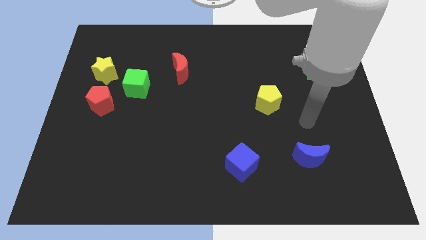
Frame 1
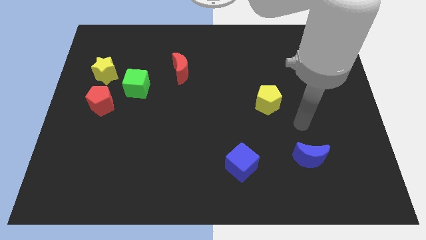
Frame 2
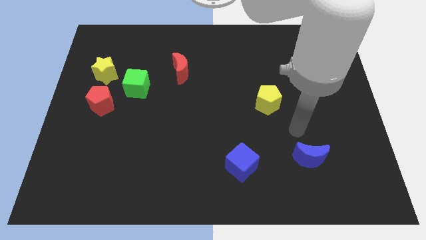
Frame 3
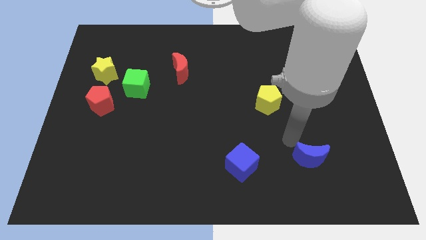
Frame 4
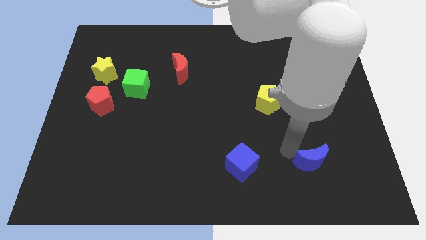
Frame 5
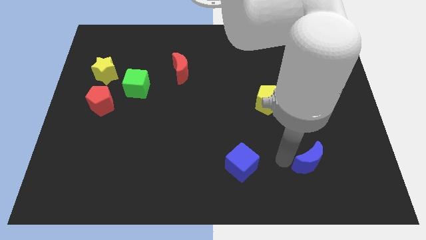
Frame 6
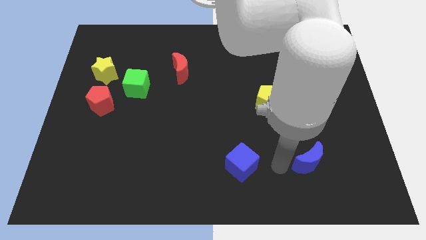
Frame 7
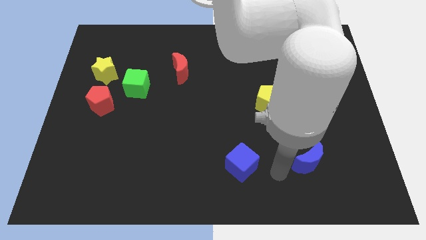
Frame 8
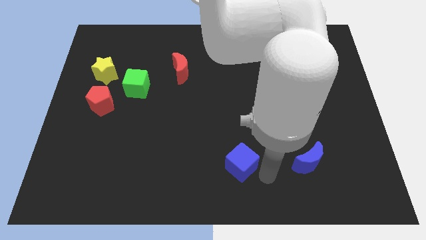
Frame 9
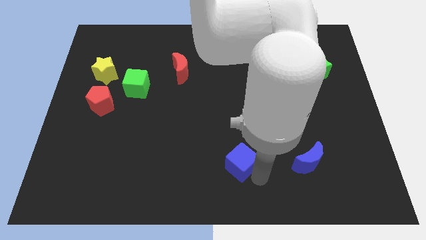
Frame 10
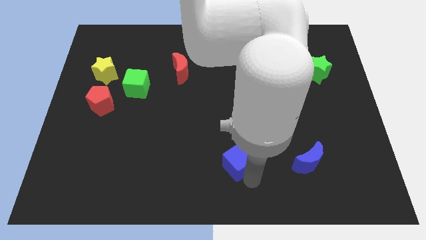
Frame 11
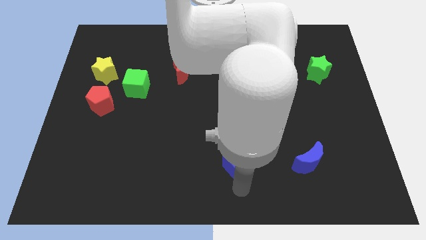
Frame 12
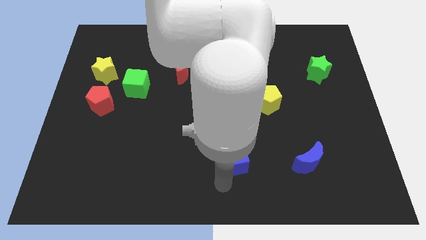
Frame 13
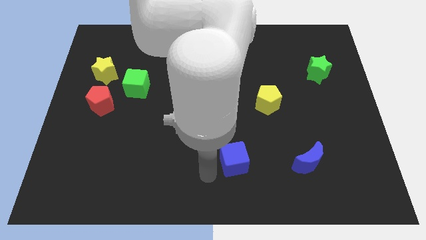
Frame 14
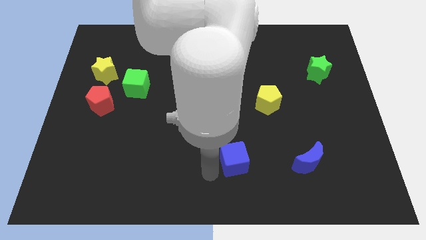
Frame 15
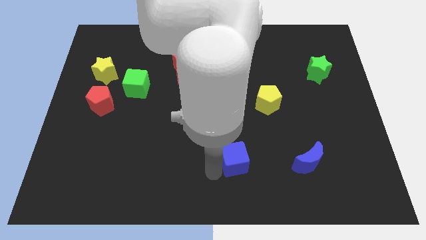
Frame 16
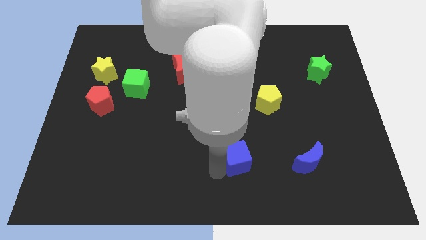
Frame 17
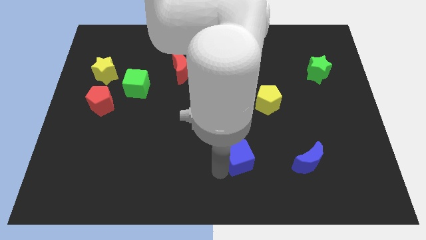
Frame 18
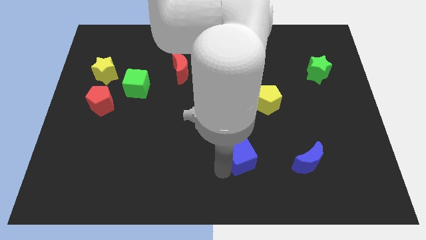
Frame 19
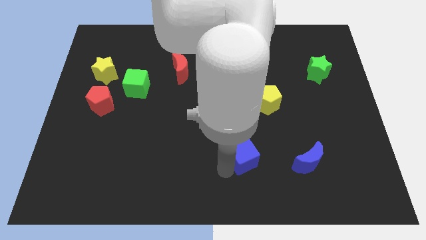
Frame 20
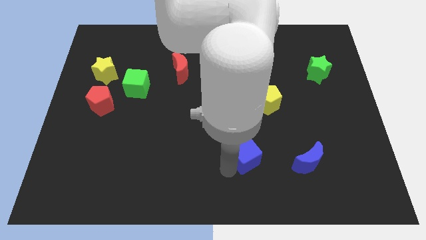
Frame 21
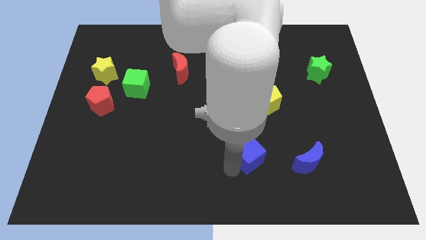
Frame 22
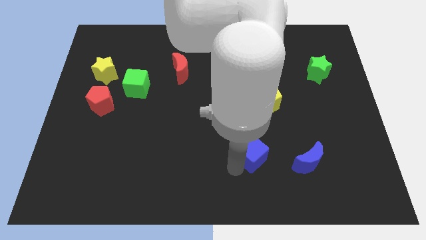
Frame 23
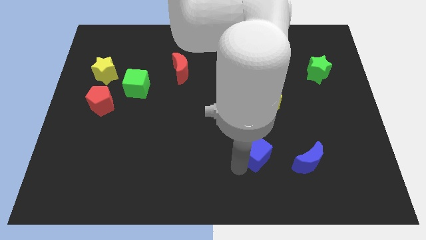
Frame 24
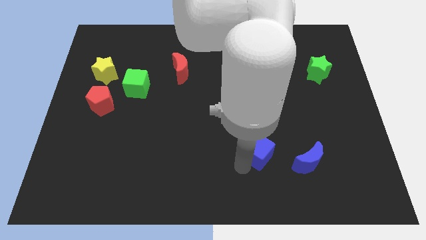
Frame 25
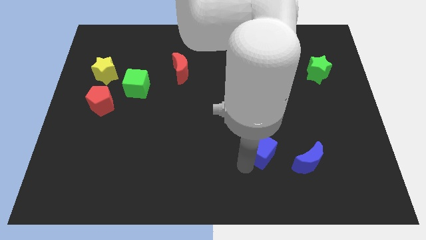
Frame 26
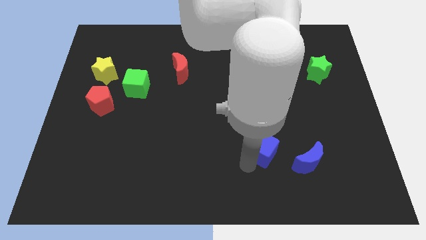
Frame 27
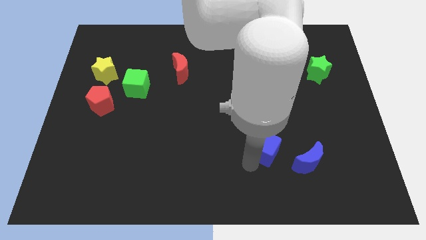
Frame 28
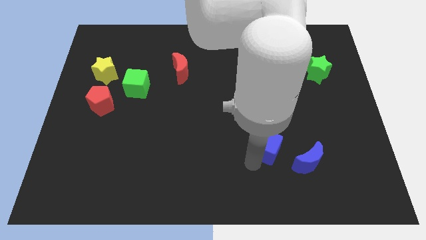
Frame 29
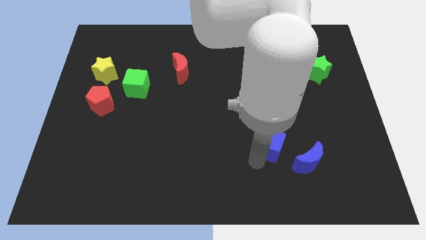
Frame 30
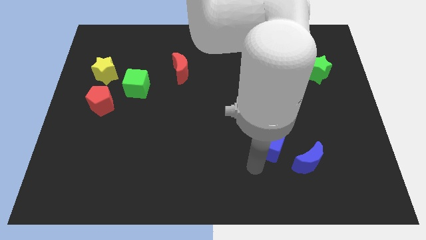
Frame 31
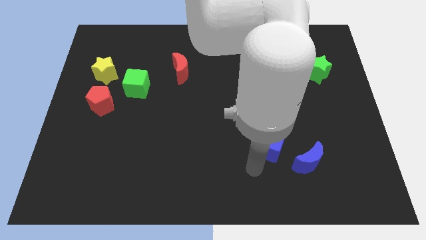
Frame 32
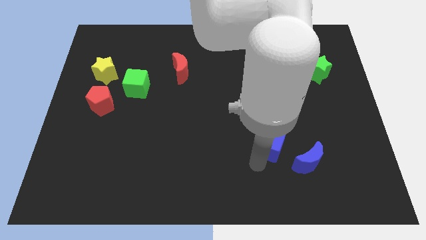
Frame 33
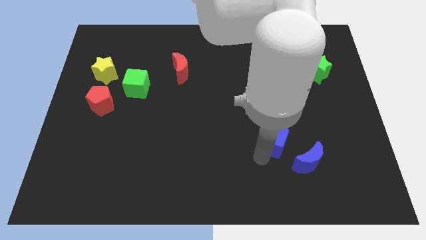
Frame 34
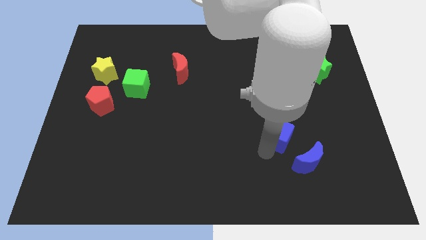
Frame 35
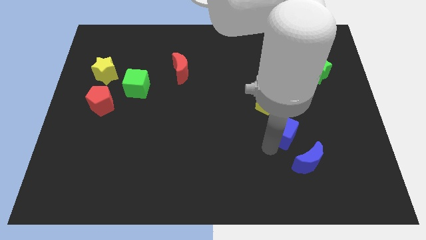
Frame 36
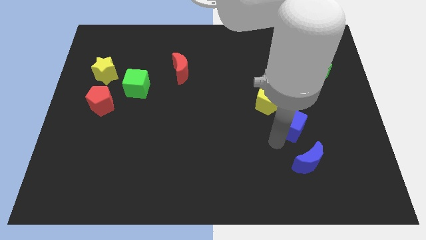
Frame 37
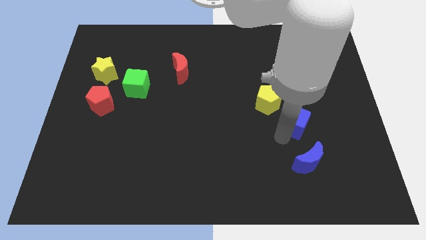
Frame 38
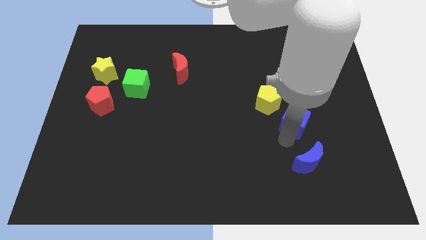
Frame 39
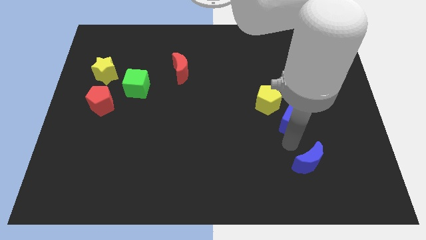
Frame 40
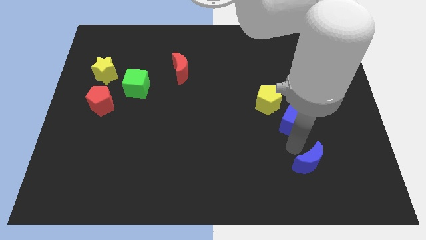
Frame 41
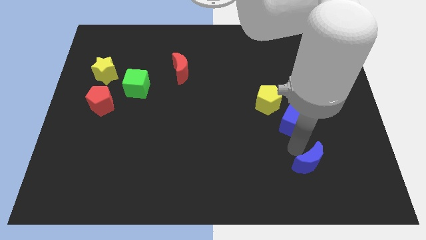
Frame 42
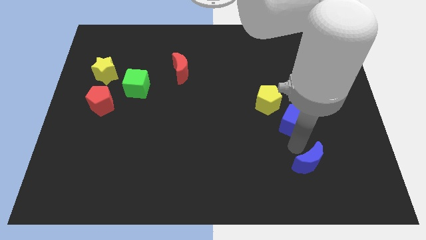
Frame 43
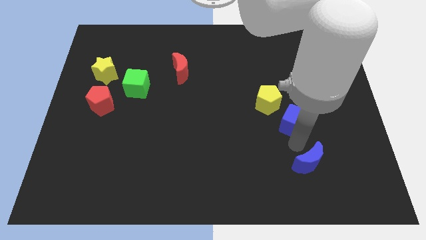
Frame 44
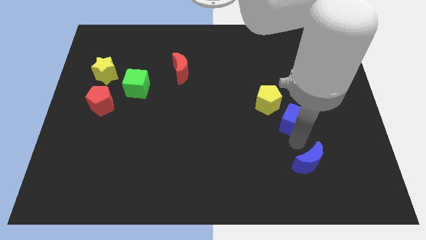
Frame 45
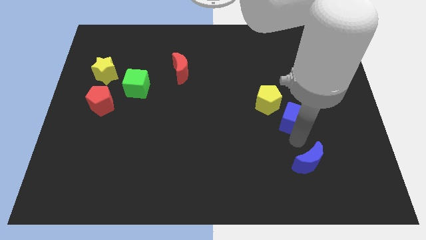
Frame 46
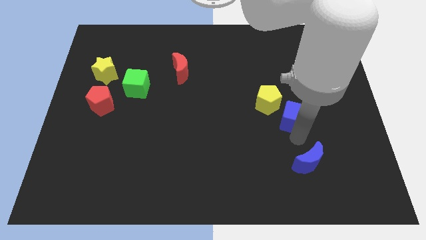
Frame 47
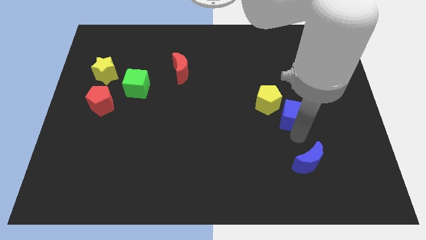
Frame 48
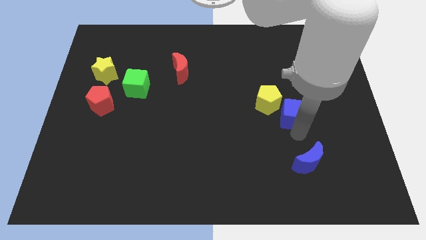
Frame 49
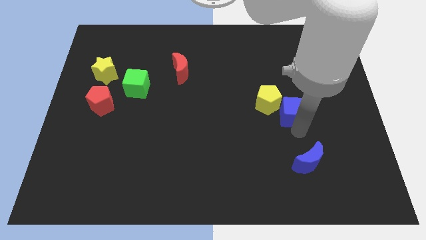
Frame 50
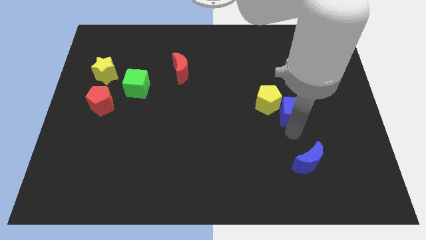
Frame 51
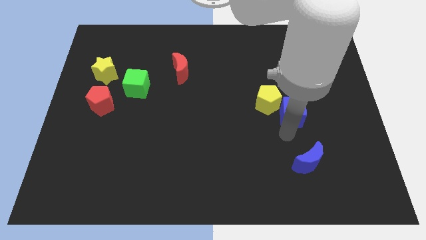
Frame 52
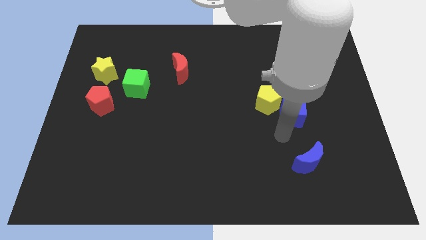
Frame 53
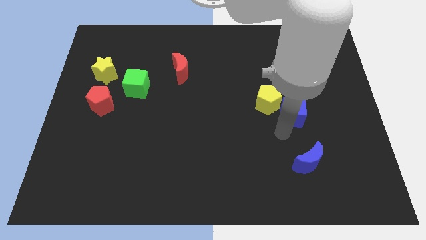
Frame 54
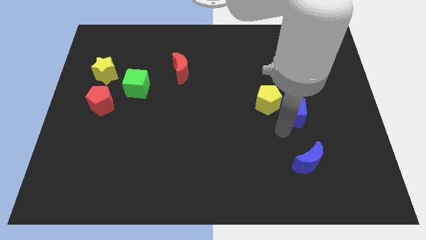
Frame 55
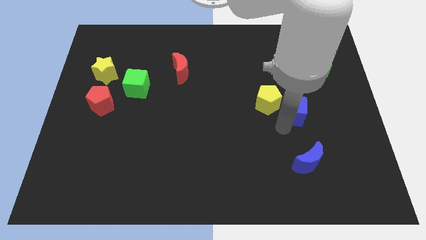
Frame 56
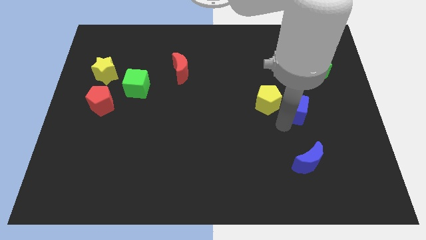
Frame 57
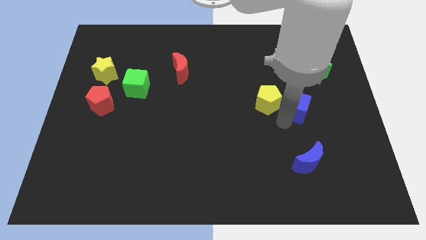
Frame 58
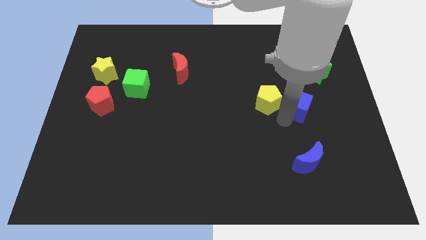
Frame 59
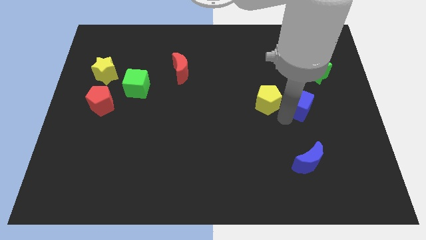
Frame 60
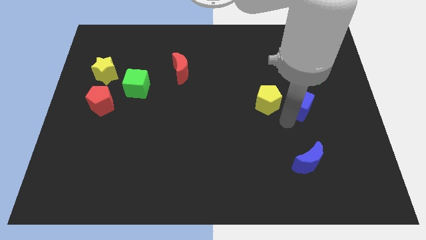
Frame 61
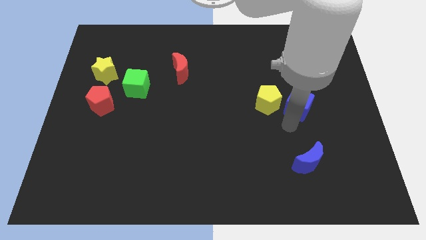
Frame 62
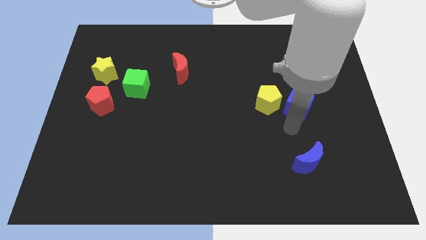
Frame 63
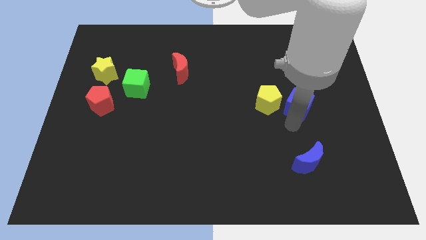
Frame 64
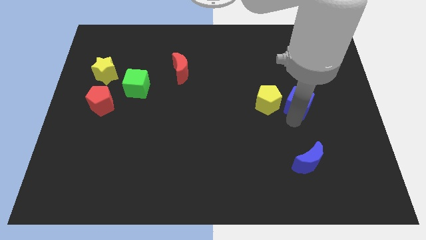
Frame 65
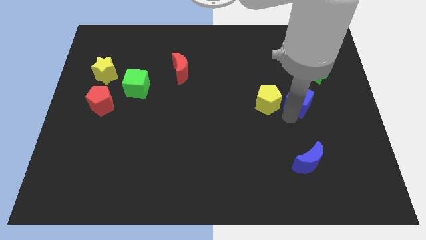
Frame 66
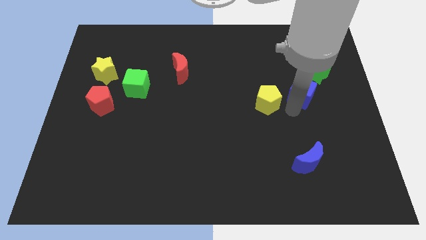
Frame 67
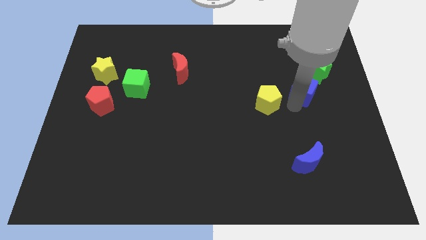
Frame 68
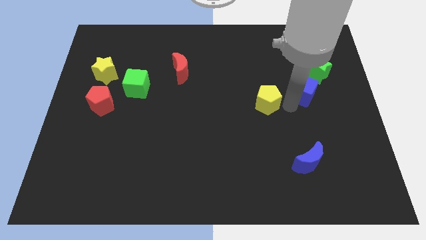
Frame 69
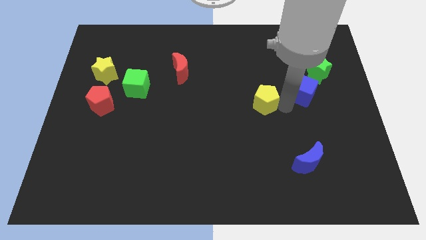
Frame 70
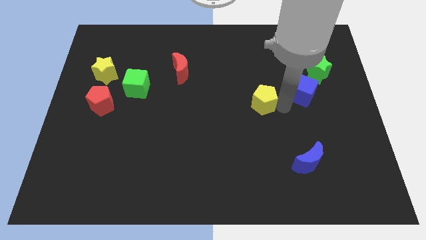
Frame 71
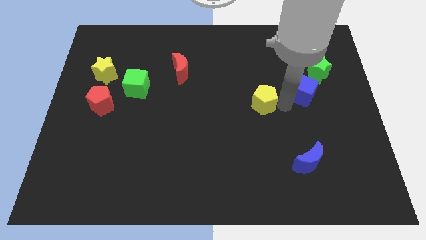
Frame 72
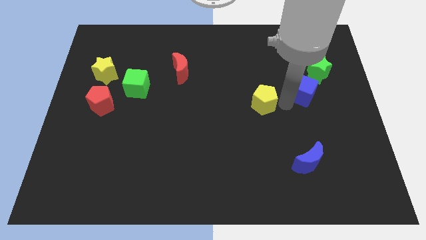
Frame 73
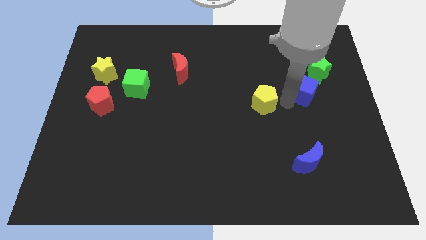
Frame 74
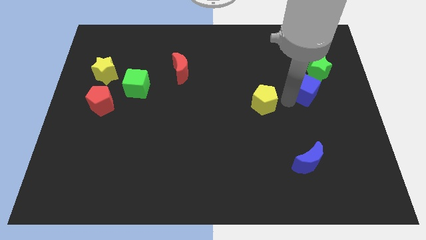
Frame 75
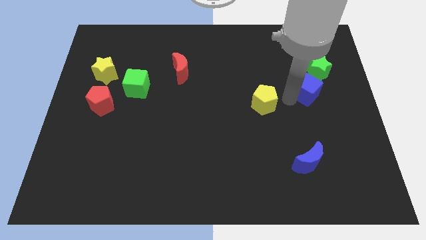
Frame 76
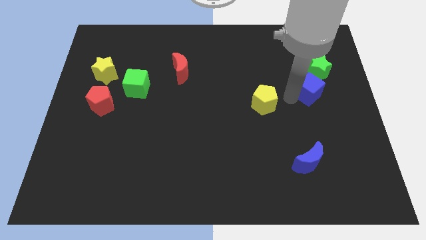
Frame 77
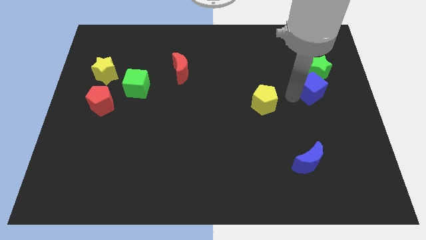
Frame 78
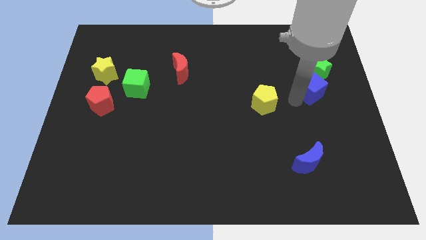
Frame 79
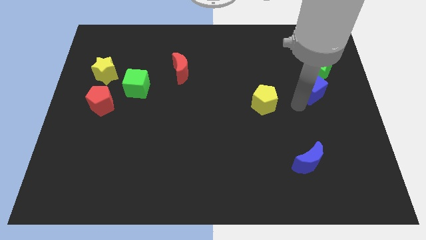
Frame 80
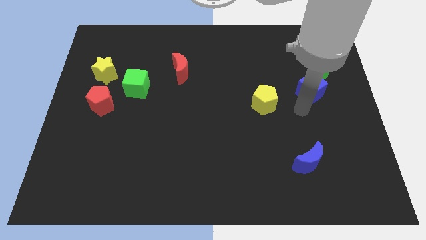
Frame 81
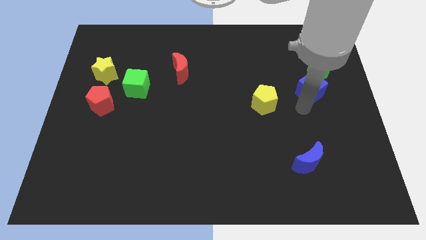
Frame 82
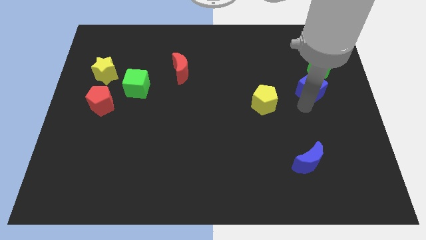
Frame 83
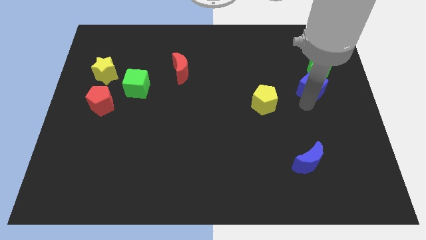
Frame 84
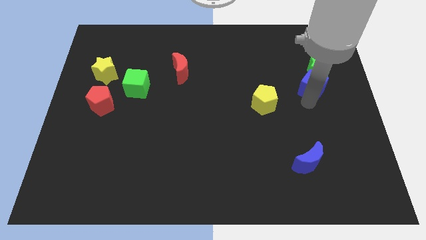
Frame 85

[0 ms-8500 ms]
slide the blue cube next to the green star
